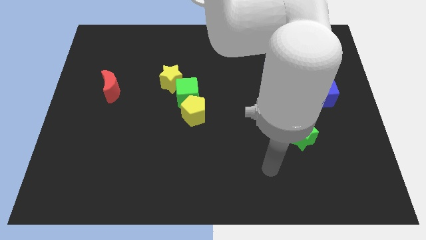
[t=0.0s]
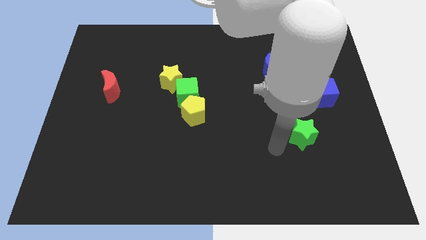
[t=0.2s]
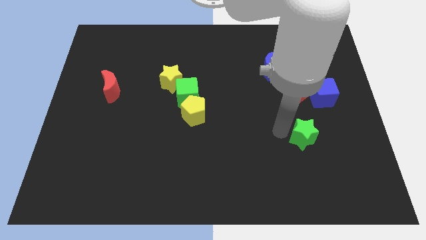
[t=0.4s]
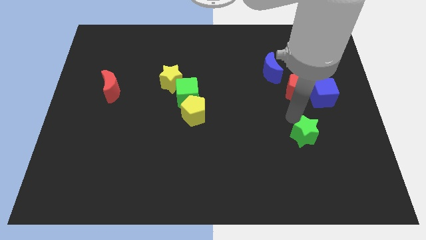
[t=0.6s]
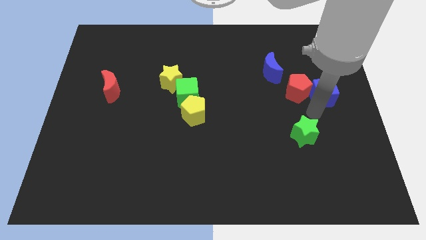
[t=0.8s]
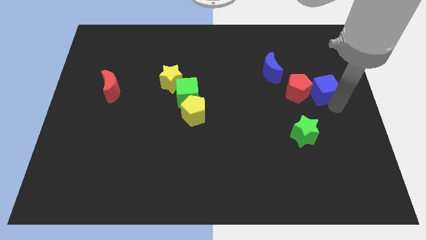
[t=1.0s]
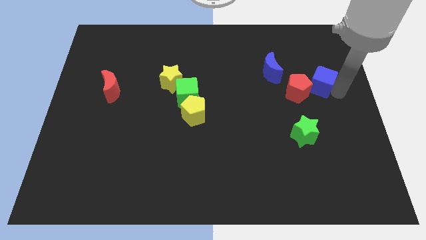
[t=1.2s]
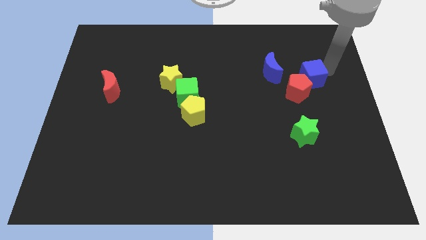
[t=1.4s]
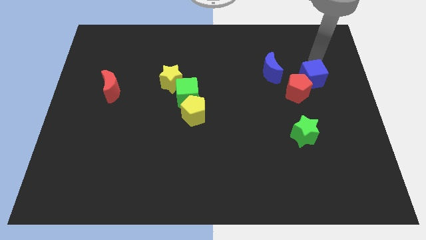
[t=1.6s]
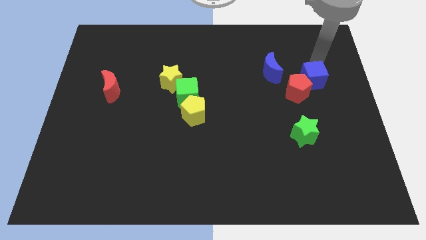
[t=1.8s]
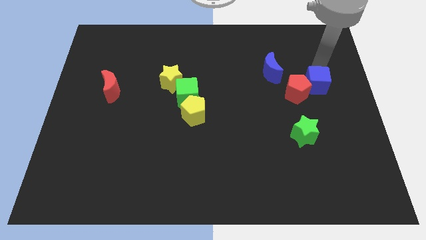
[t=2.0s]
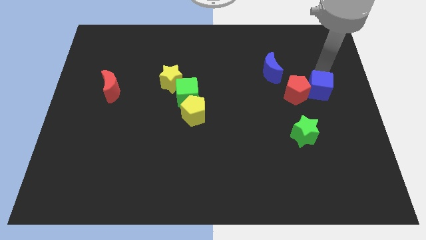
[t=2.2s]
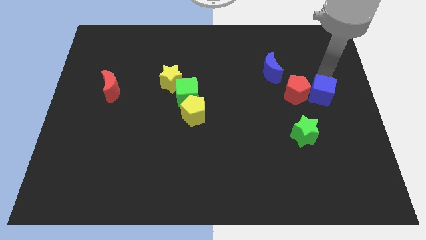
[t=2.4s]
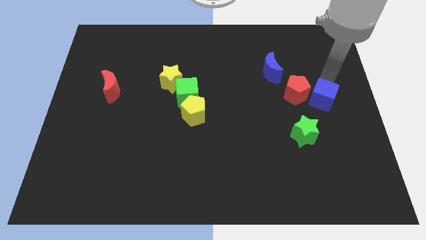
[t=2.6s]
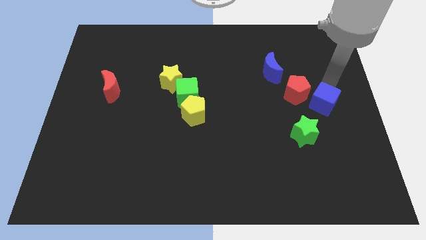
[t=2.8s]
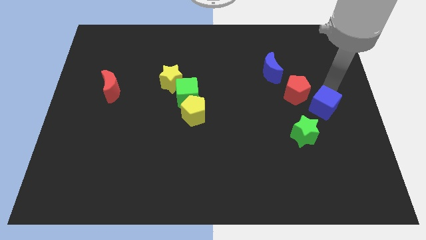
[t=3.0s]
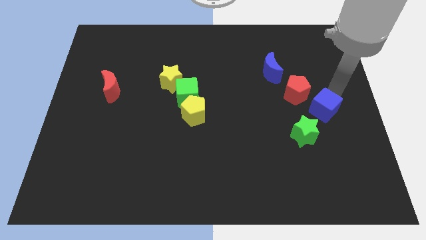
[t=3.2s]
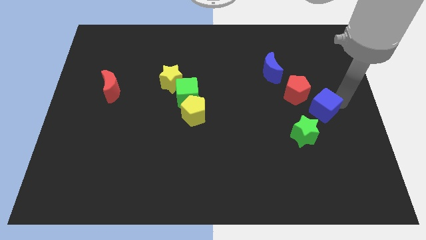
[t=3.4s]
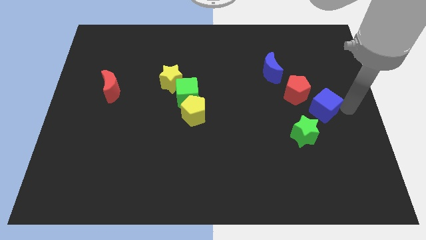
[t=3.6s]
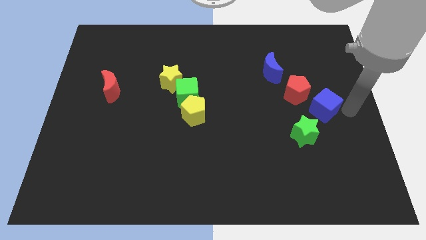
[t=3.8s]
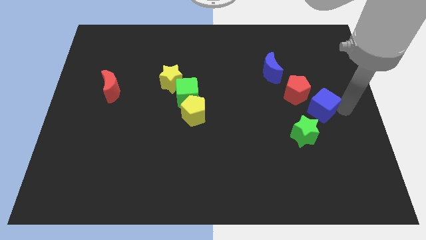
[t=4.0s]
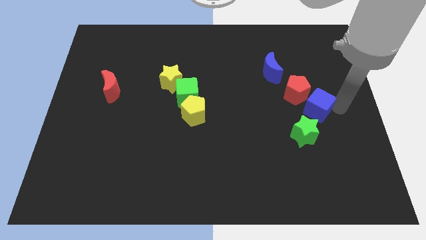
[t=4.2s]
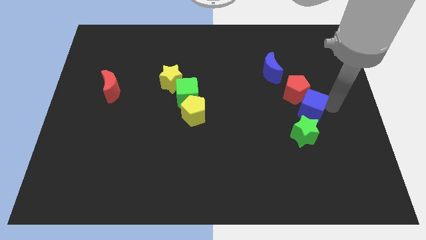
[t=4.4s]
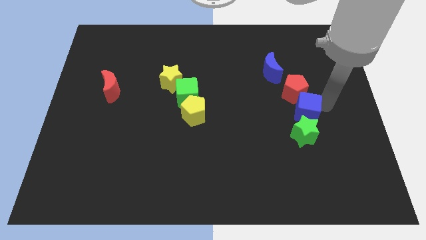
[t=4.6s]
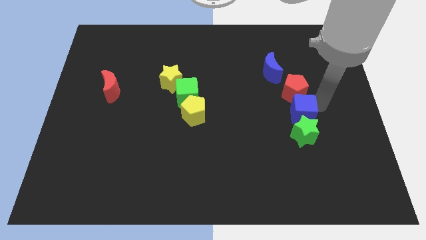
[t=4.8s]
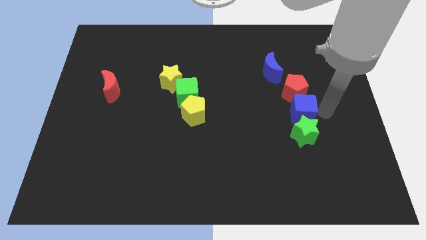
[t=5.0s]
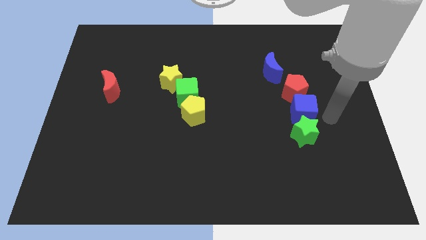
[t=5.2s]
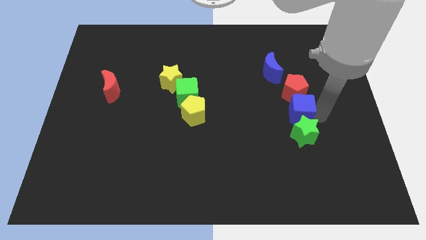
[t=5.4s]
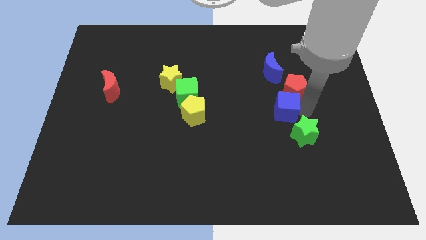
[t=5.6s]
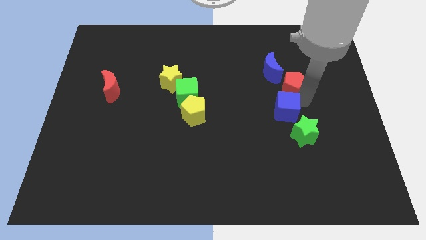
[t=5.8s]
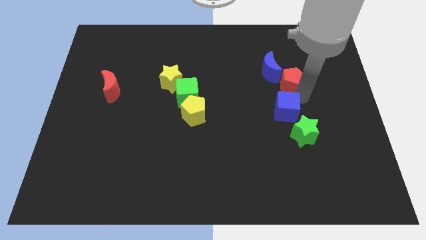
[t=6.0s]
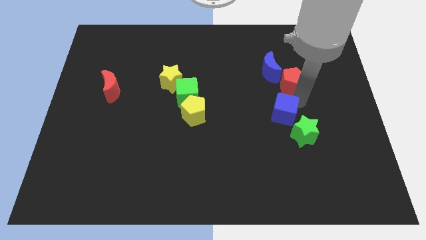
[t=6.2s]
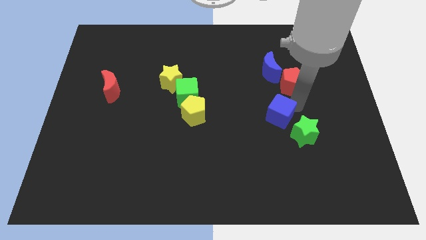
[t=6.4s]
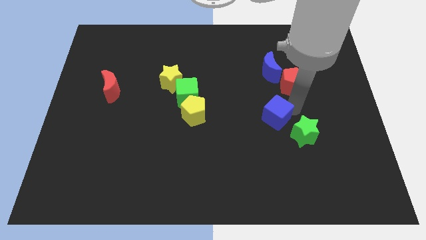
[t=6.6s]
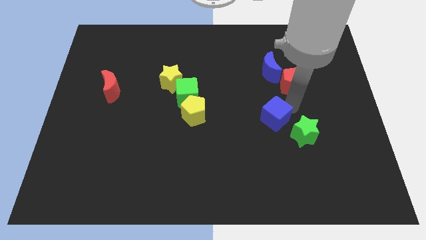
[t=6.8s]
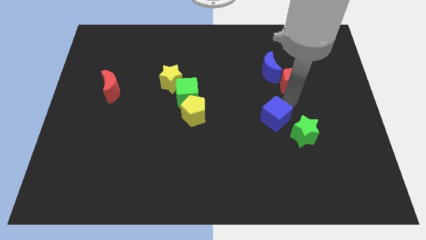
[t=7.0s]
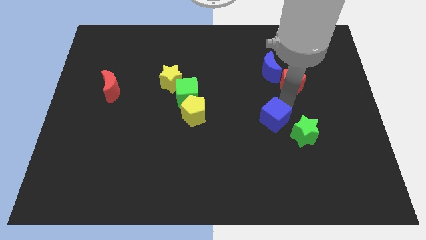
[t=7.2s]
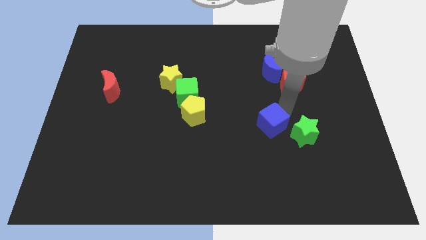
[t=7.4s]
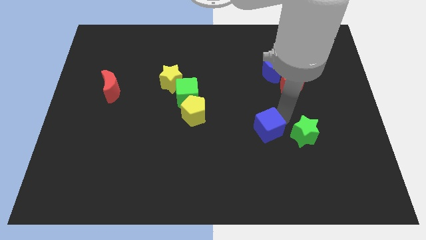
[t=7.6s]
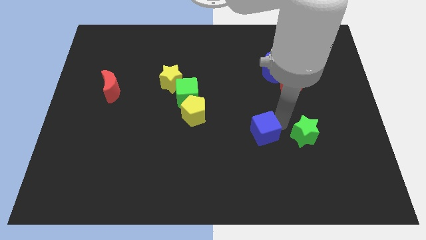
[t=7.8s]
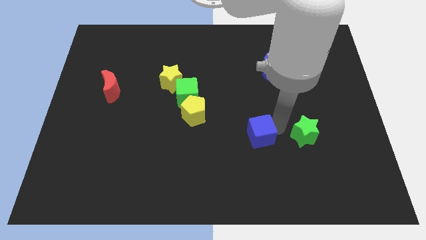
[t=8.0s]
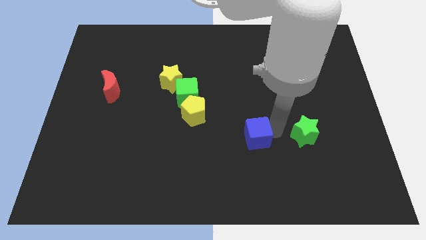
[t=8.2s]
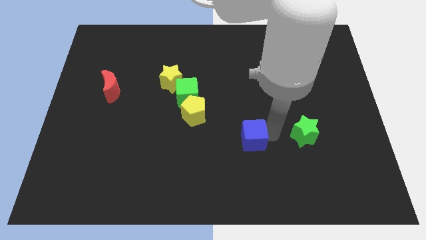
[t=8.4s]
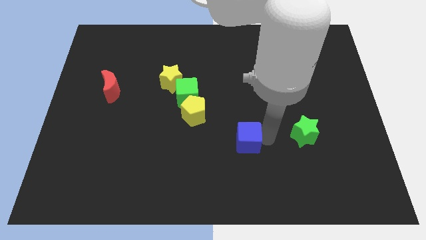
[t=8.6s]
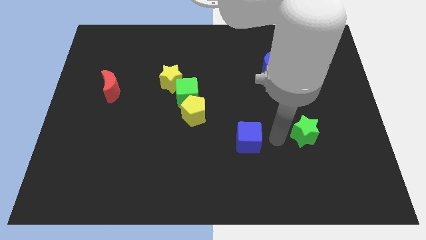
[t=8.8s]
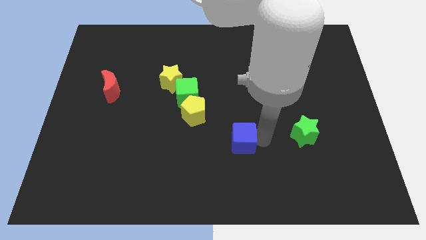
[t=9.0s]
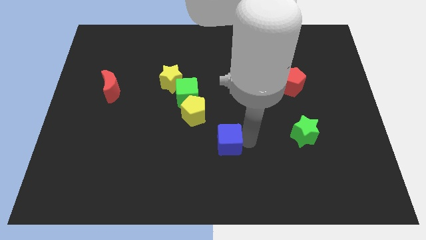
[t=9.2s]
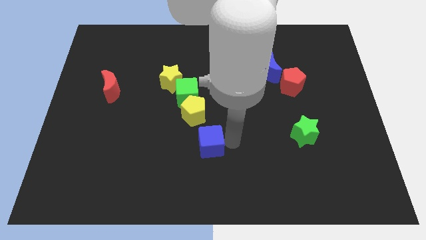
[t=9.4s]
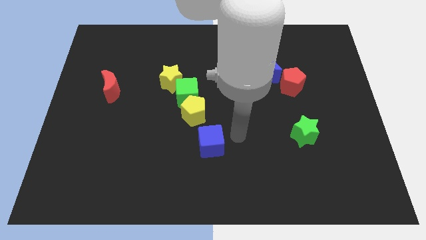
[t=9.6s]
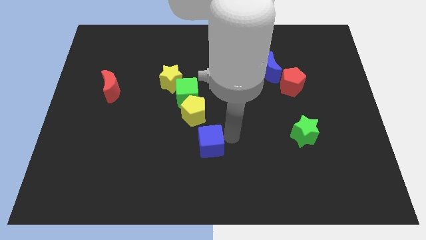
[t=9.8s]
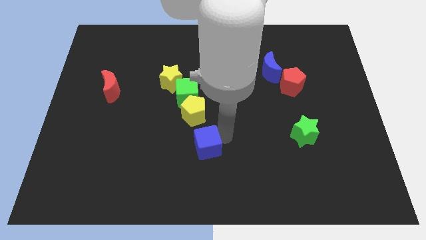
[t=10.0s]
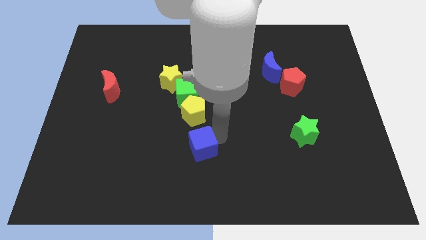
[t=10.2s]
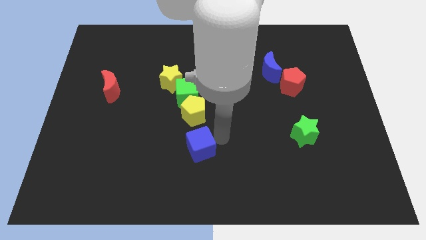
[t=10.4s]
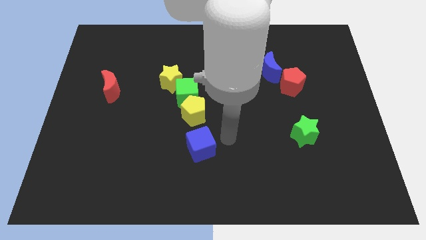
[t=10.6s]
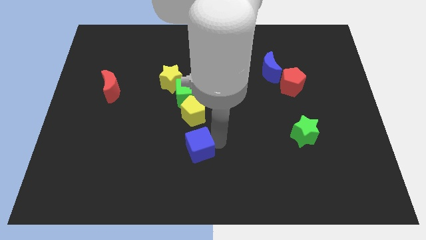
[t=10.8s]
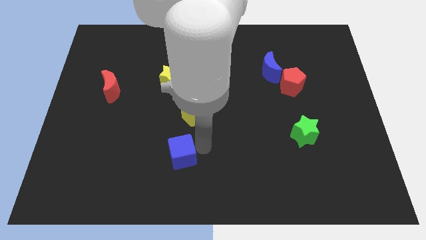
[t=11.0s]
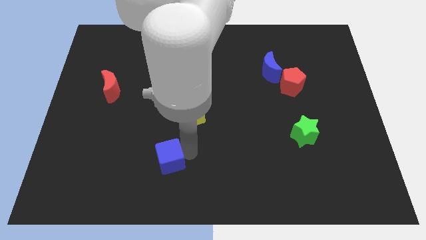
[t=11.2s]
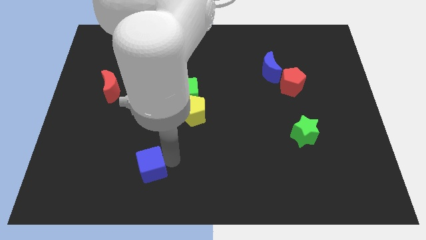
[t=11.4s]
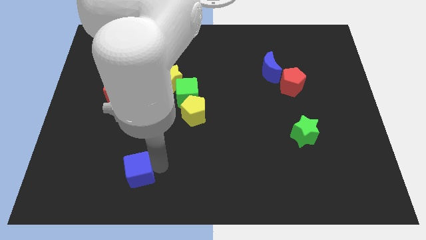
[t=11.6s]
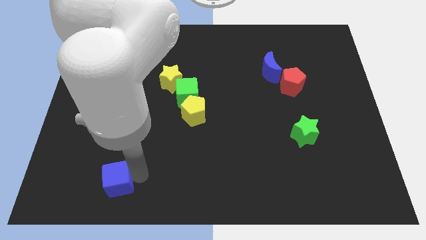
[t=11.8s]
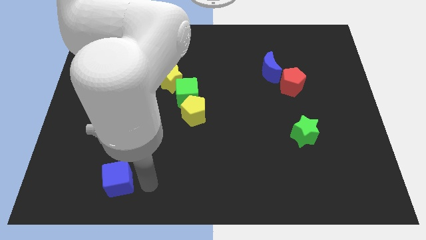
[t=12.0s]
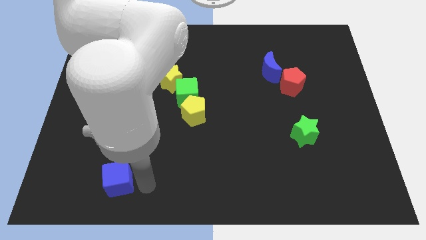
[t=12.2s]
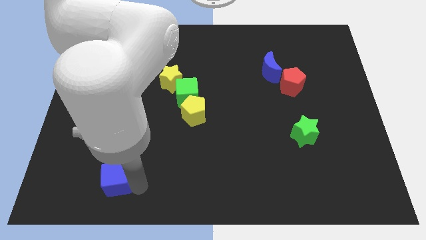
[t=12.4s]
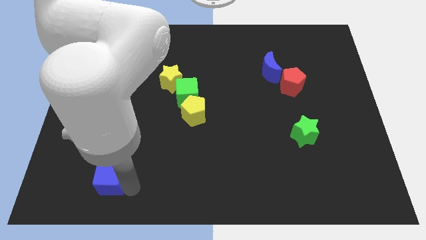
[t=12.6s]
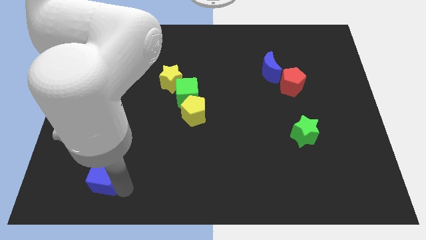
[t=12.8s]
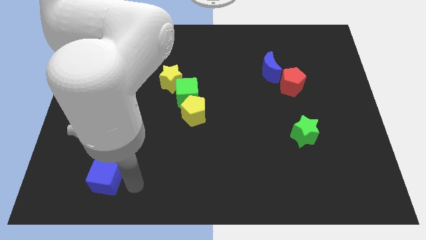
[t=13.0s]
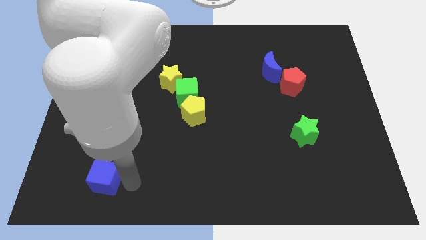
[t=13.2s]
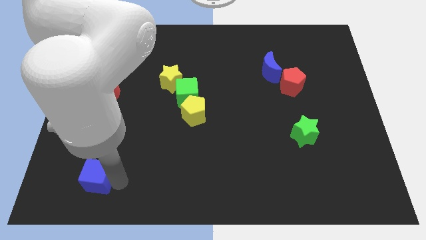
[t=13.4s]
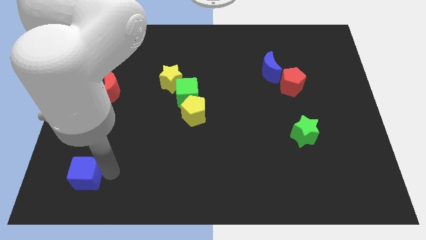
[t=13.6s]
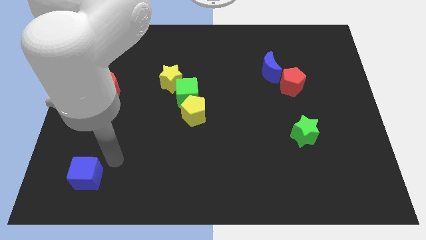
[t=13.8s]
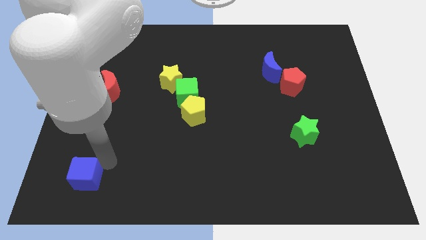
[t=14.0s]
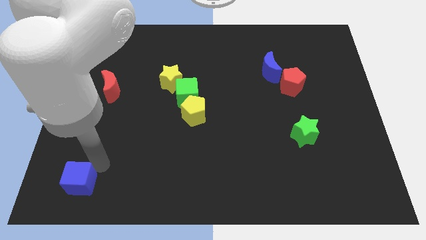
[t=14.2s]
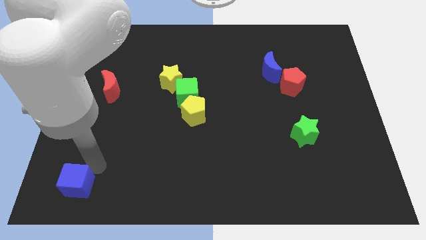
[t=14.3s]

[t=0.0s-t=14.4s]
move the blue cube to the bottom left
